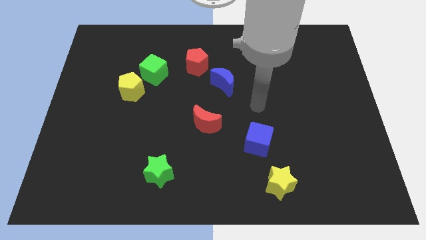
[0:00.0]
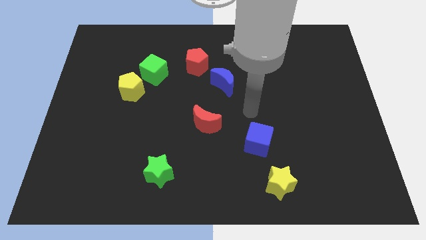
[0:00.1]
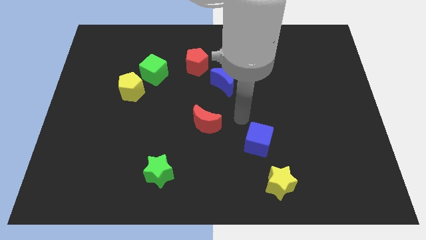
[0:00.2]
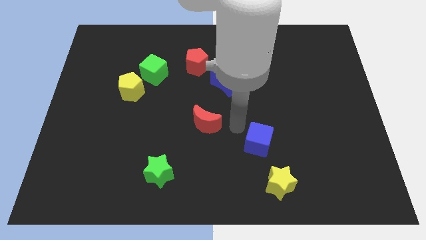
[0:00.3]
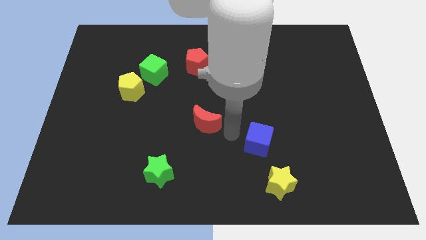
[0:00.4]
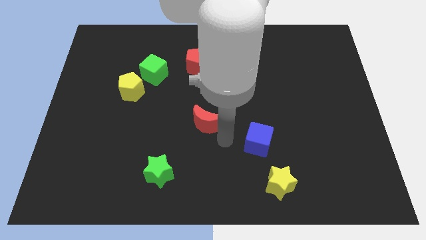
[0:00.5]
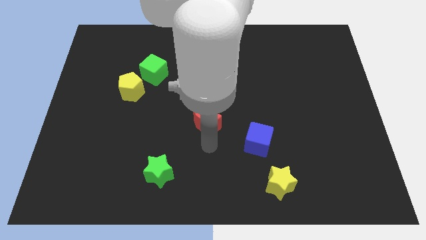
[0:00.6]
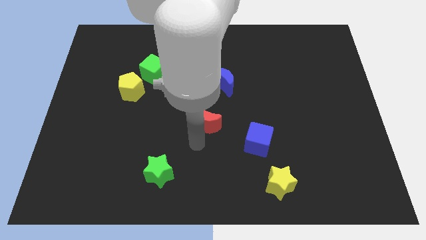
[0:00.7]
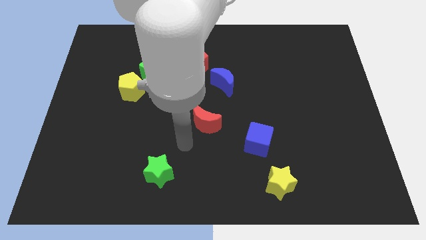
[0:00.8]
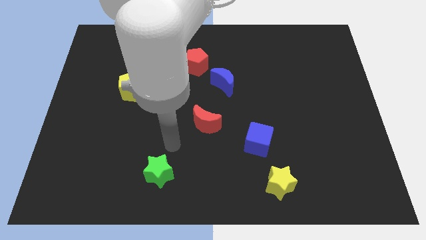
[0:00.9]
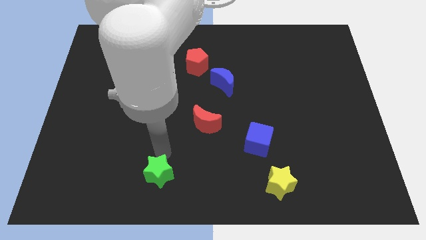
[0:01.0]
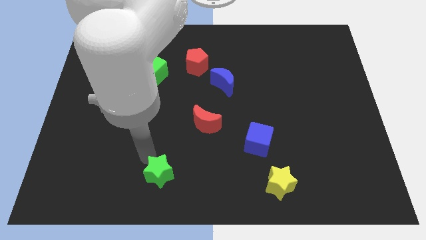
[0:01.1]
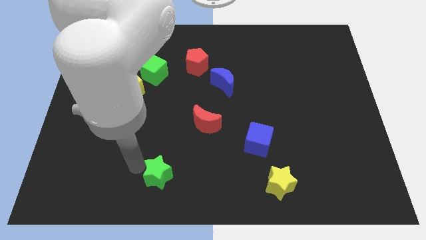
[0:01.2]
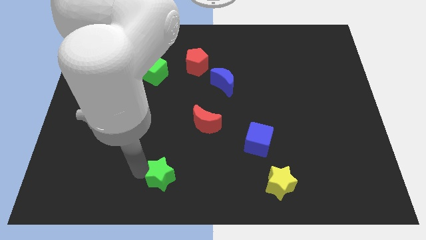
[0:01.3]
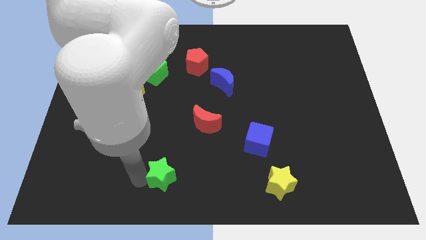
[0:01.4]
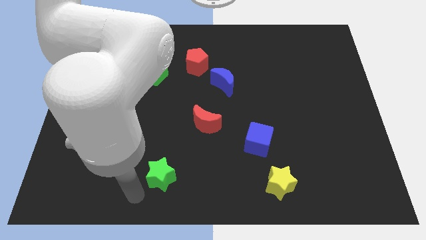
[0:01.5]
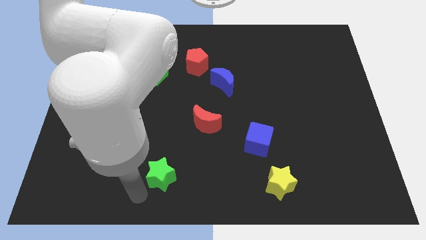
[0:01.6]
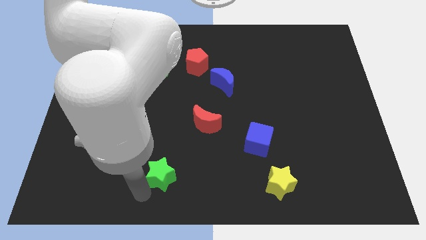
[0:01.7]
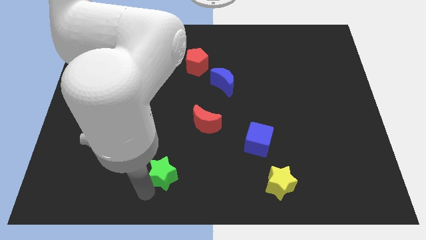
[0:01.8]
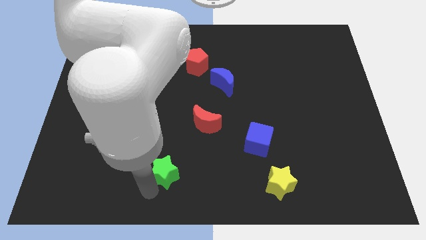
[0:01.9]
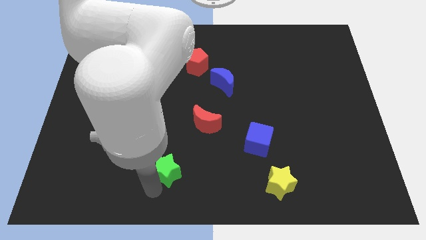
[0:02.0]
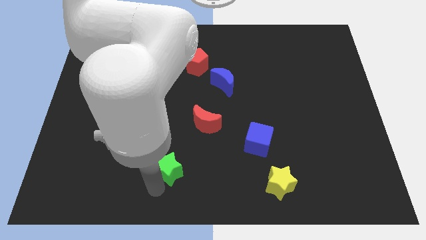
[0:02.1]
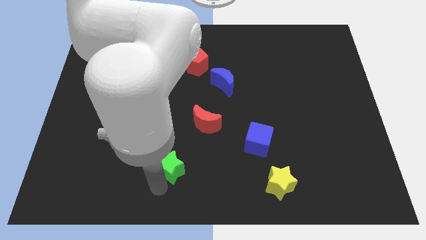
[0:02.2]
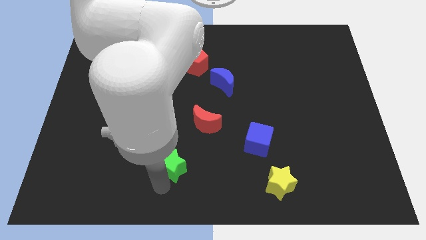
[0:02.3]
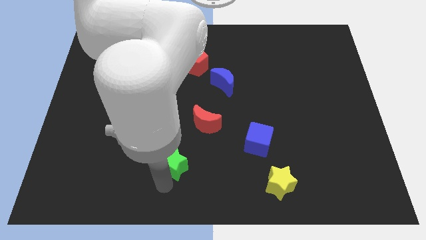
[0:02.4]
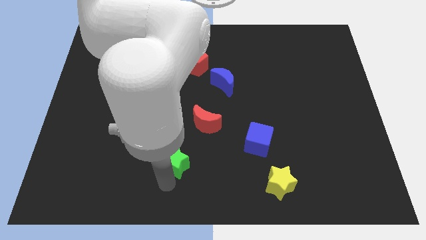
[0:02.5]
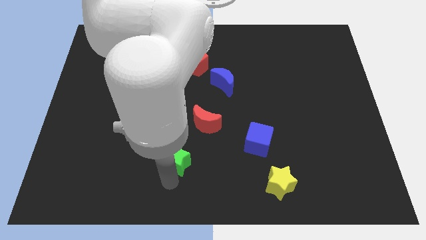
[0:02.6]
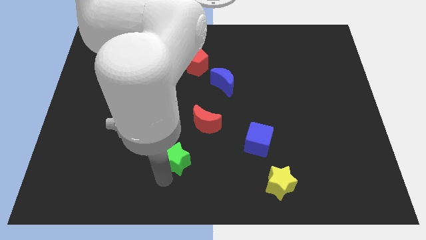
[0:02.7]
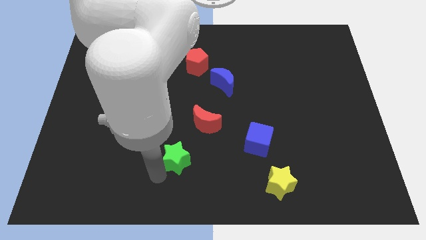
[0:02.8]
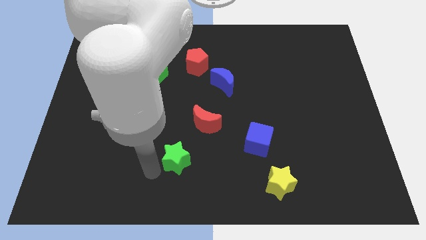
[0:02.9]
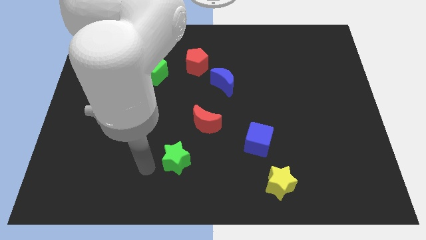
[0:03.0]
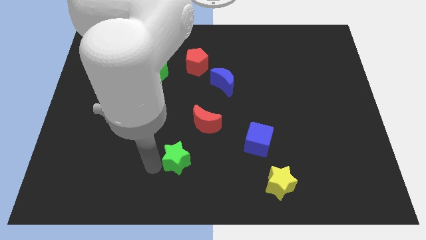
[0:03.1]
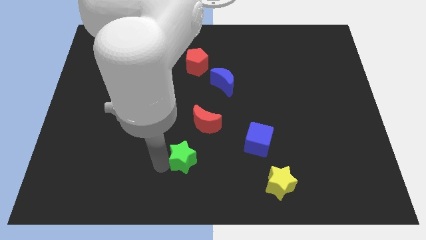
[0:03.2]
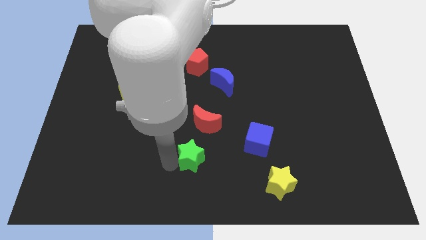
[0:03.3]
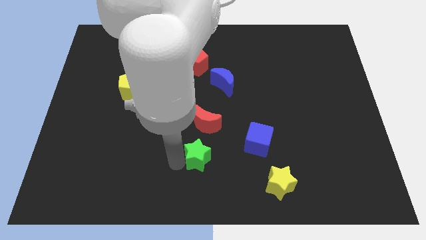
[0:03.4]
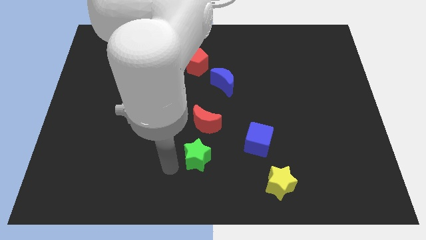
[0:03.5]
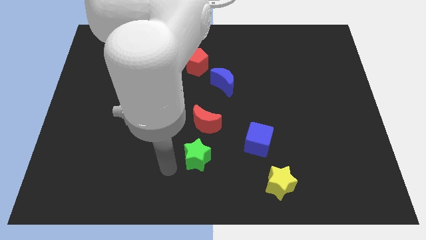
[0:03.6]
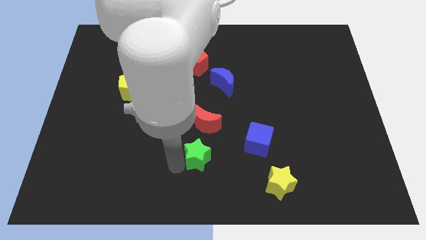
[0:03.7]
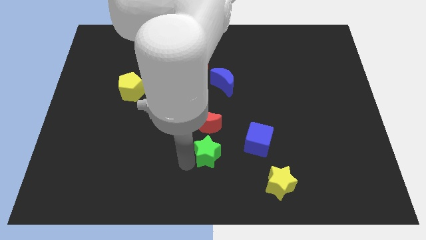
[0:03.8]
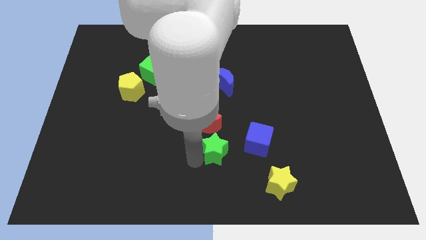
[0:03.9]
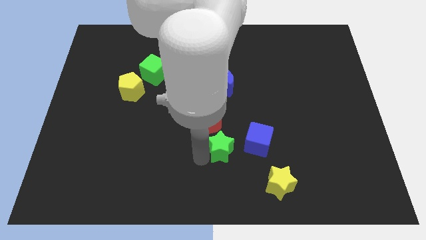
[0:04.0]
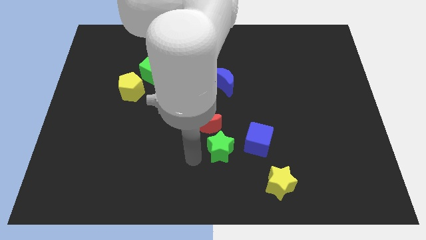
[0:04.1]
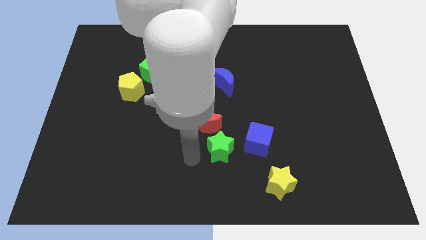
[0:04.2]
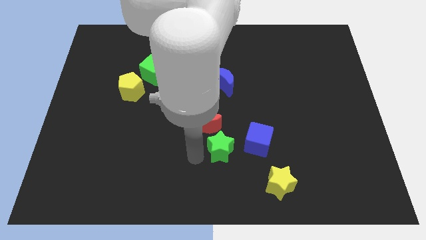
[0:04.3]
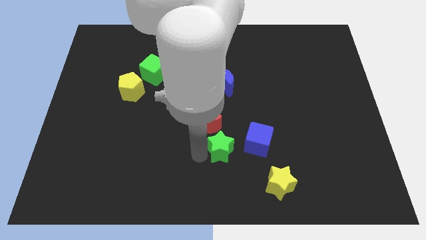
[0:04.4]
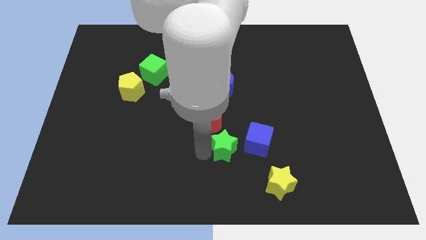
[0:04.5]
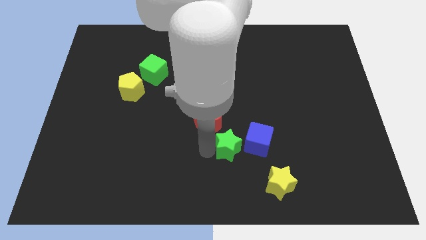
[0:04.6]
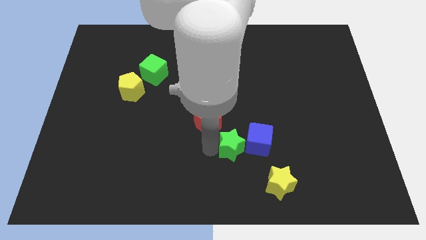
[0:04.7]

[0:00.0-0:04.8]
move the green star towards the blue cube

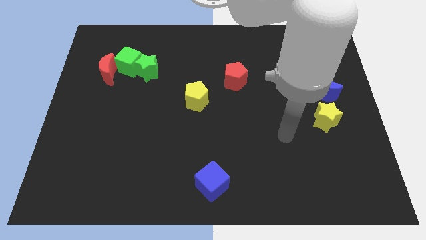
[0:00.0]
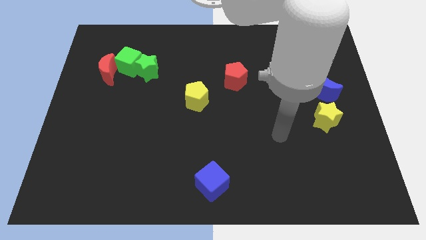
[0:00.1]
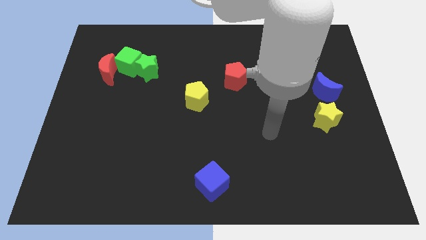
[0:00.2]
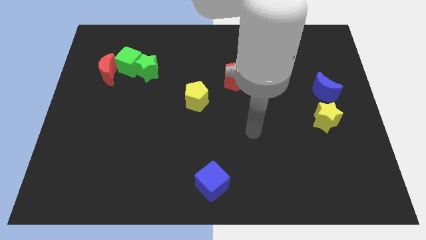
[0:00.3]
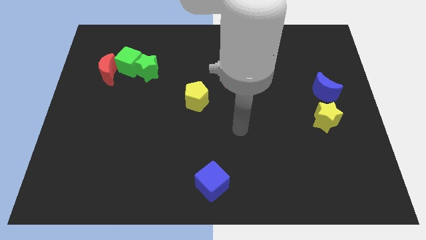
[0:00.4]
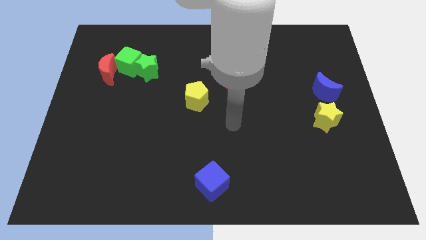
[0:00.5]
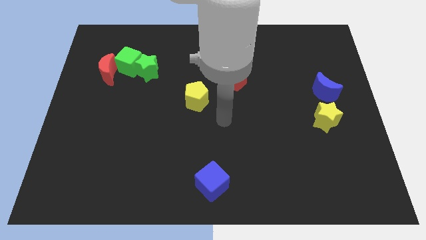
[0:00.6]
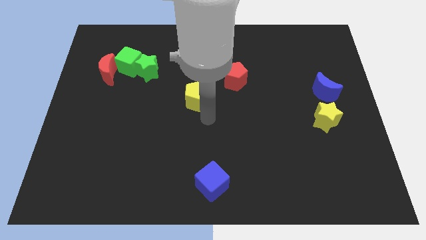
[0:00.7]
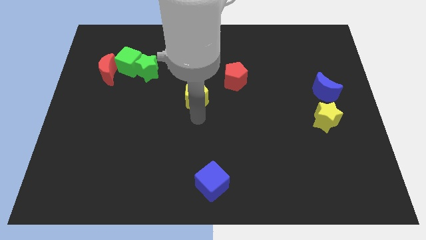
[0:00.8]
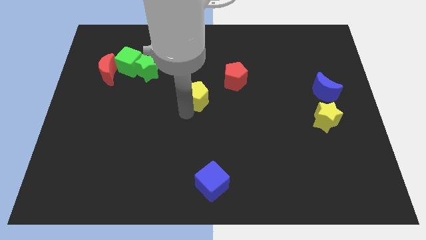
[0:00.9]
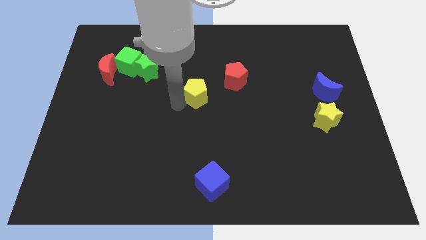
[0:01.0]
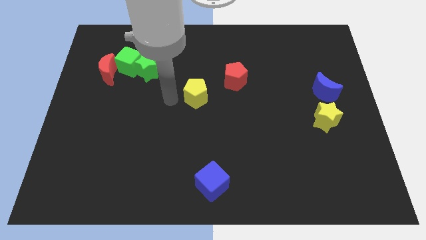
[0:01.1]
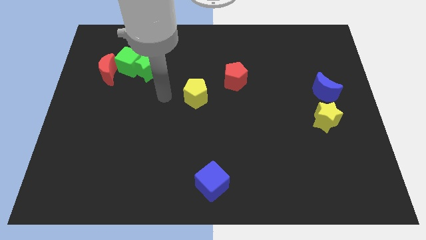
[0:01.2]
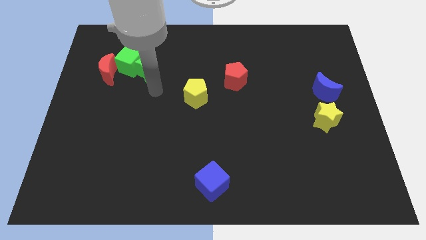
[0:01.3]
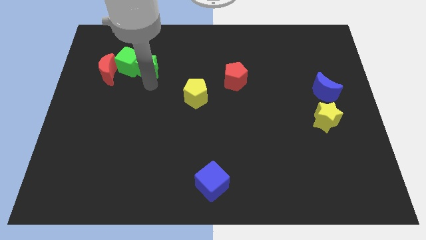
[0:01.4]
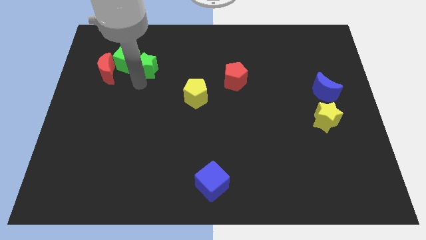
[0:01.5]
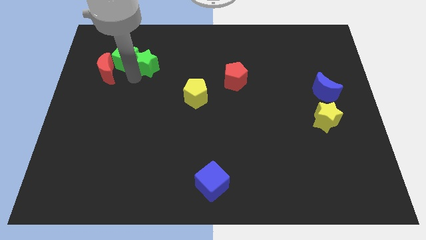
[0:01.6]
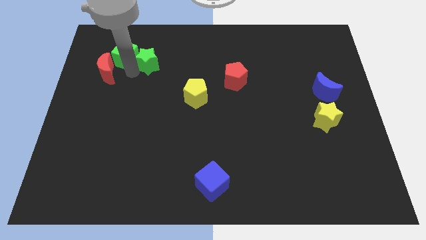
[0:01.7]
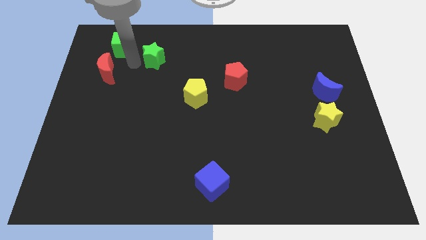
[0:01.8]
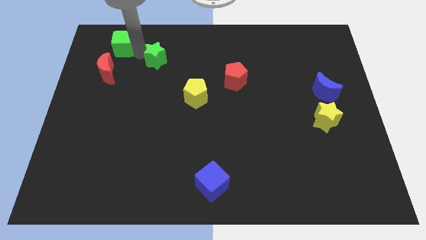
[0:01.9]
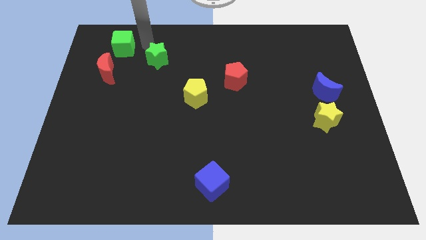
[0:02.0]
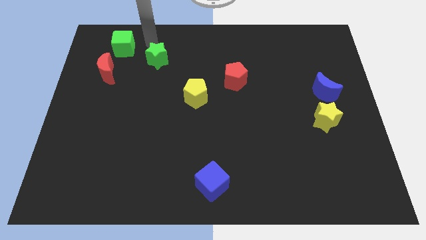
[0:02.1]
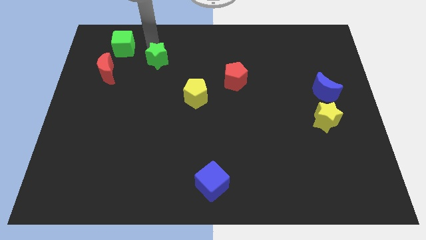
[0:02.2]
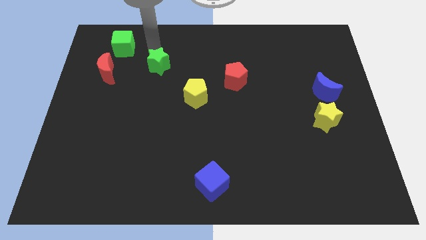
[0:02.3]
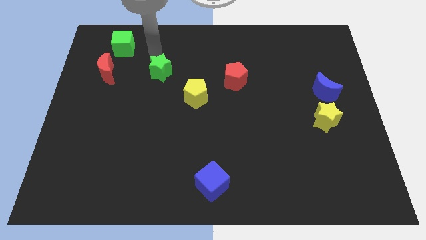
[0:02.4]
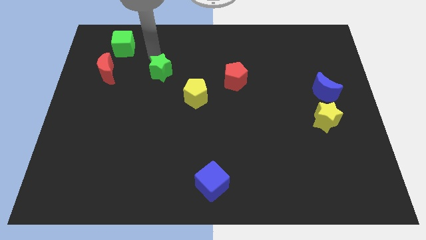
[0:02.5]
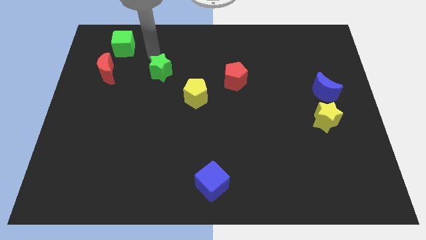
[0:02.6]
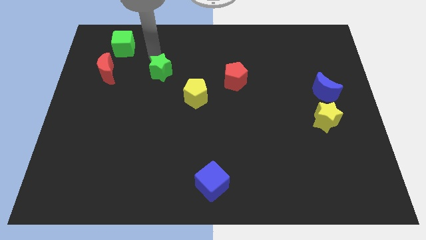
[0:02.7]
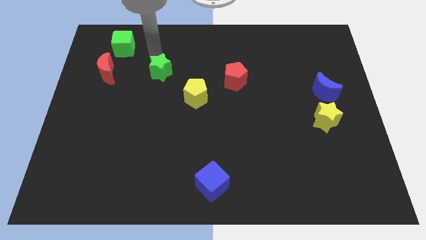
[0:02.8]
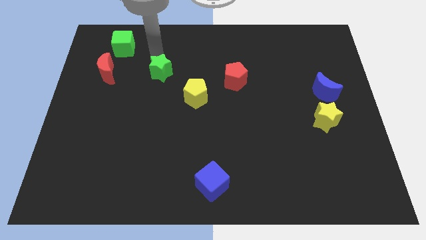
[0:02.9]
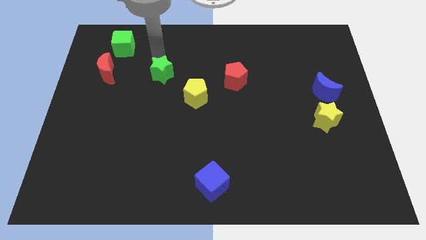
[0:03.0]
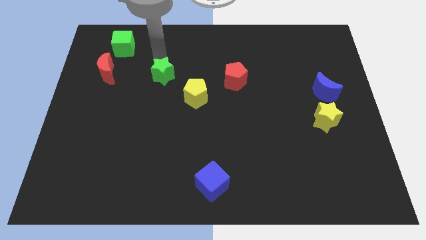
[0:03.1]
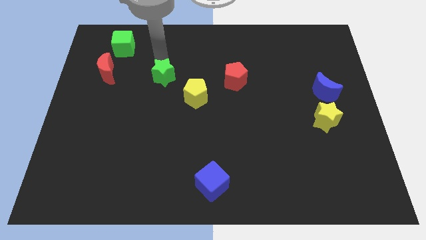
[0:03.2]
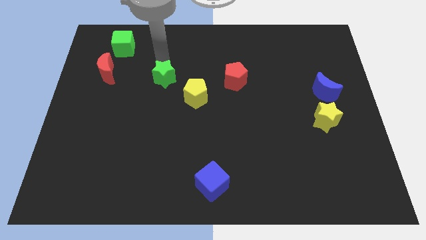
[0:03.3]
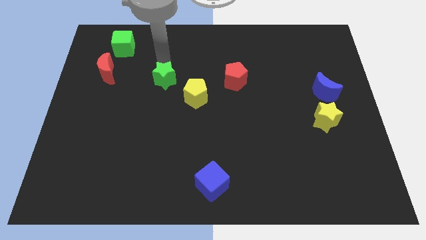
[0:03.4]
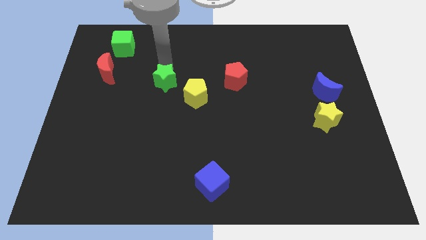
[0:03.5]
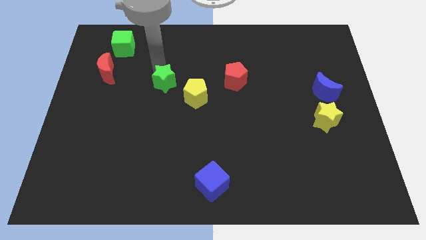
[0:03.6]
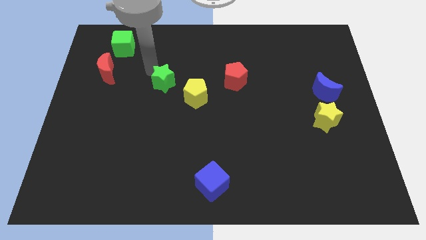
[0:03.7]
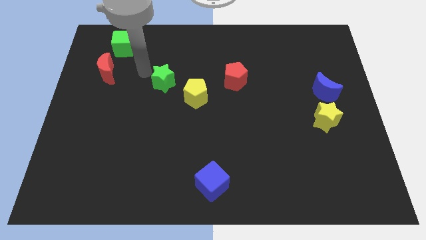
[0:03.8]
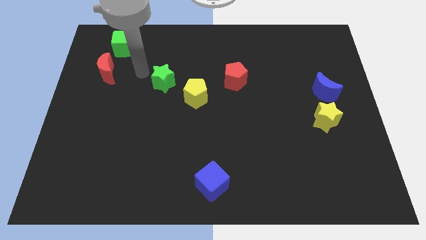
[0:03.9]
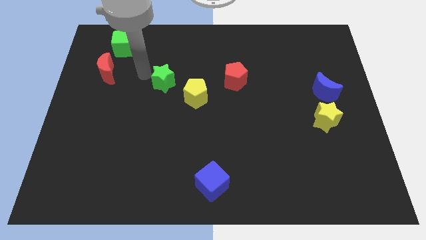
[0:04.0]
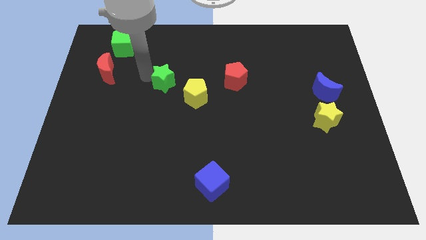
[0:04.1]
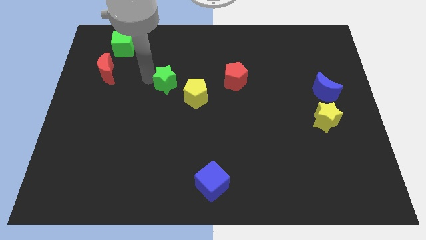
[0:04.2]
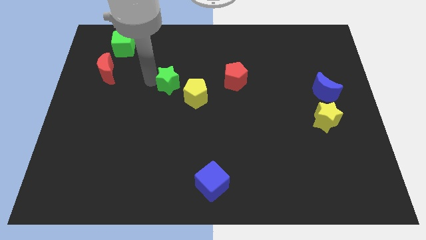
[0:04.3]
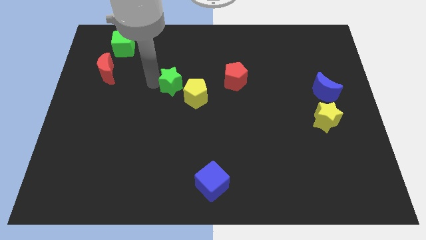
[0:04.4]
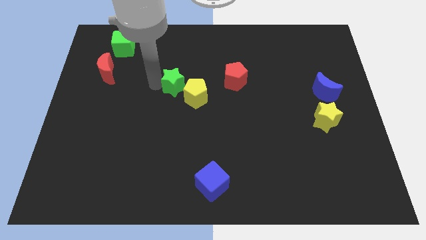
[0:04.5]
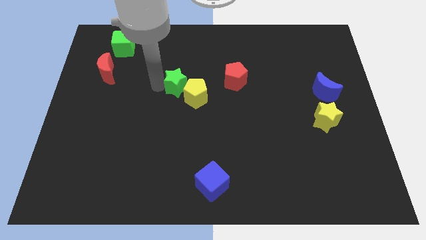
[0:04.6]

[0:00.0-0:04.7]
put the green star close to the yellow pentagon
